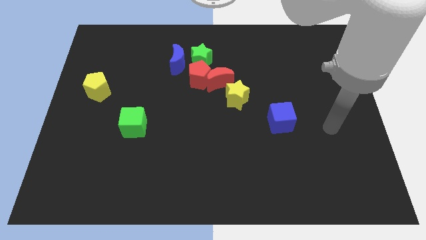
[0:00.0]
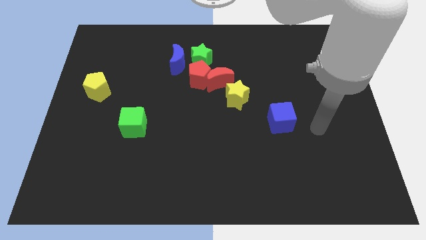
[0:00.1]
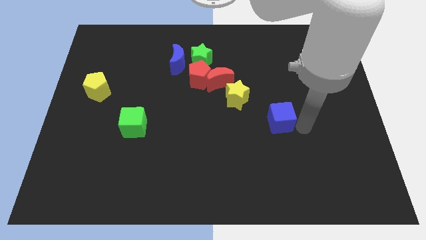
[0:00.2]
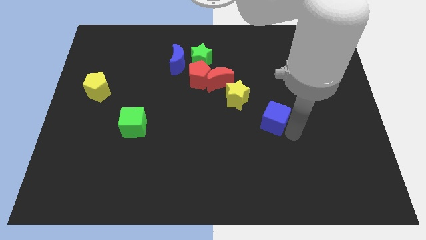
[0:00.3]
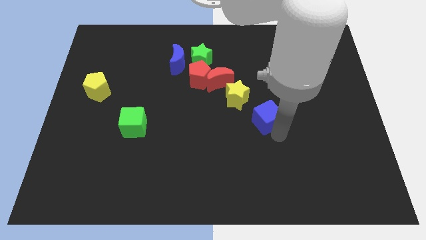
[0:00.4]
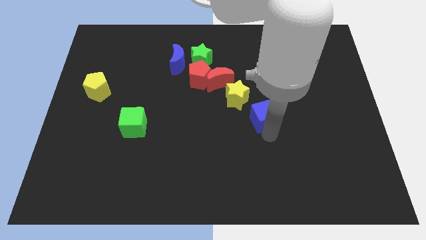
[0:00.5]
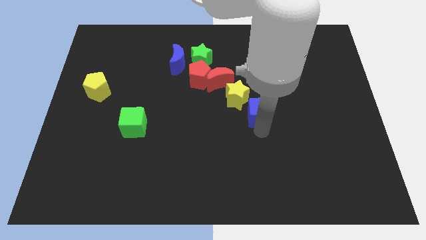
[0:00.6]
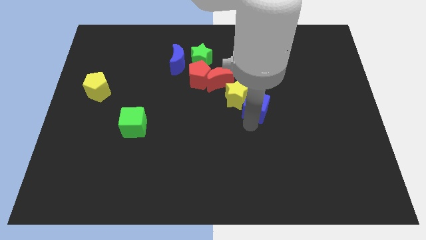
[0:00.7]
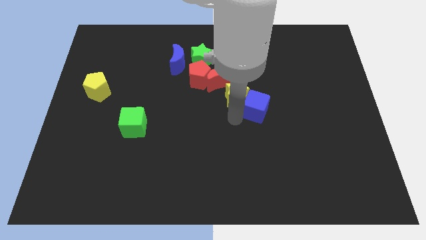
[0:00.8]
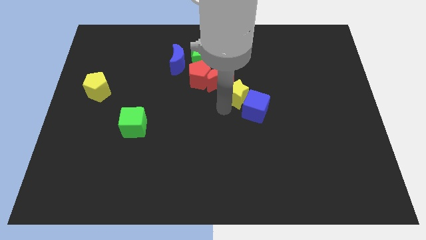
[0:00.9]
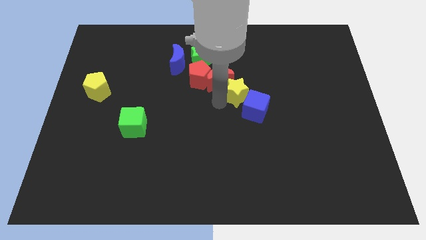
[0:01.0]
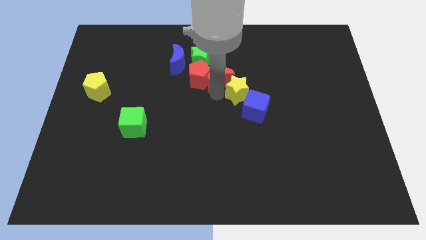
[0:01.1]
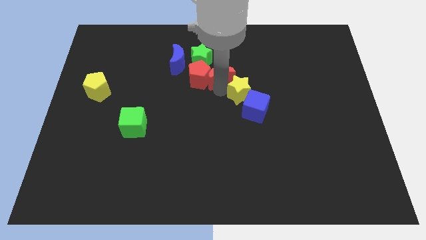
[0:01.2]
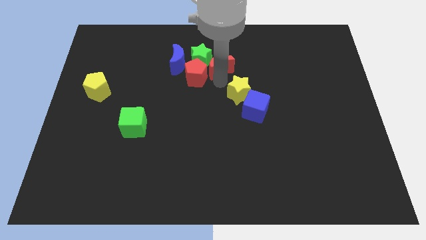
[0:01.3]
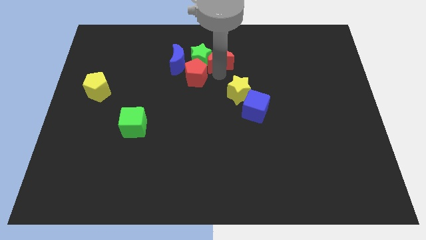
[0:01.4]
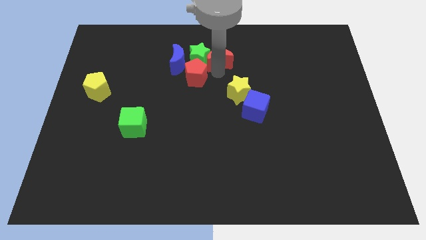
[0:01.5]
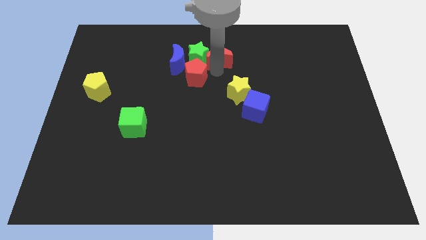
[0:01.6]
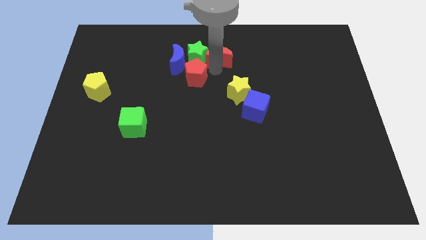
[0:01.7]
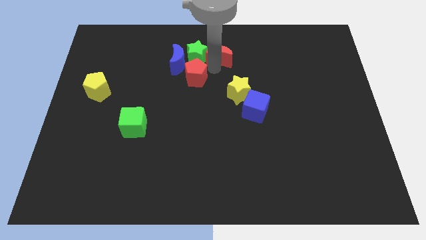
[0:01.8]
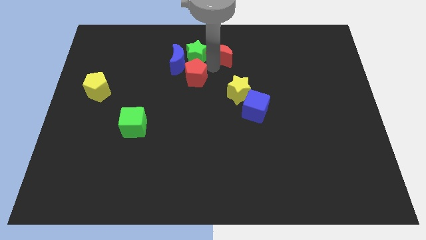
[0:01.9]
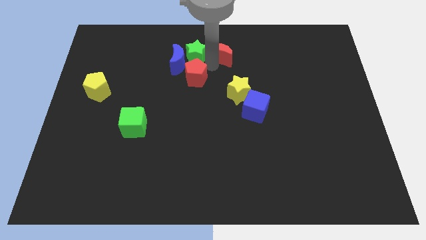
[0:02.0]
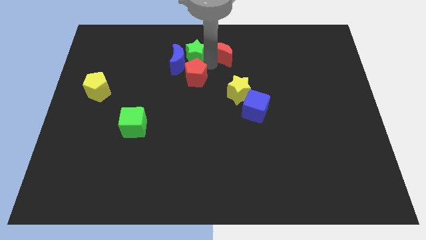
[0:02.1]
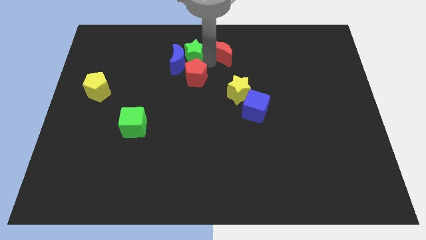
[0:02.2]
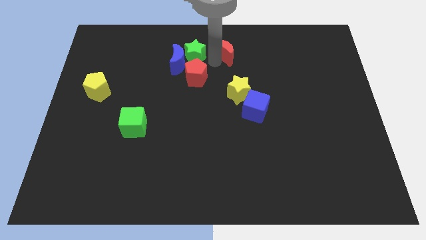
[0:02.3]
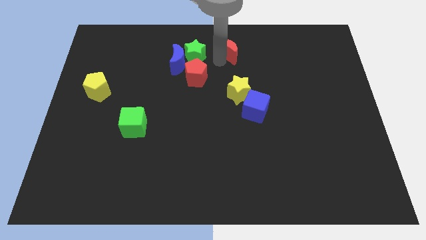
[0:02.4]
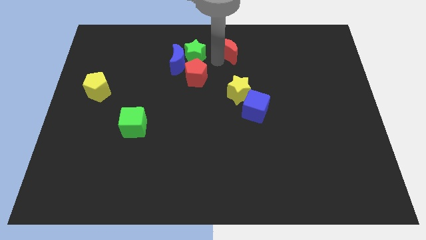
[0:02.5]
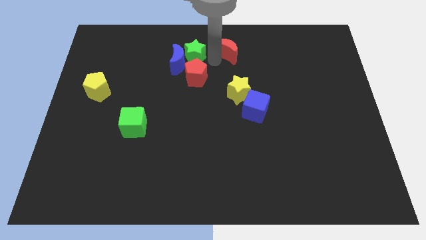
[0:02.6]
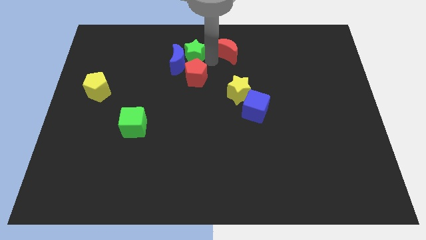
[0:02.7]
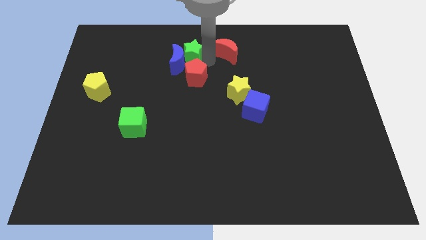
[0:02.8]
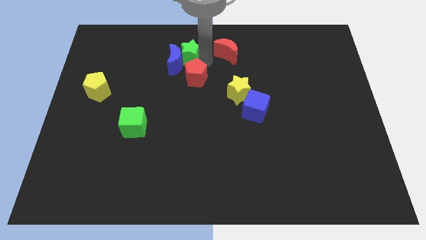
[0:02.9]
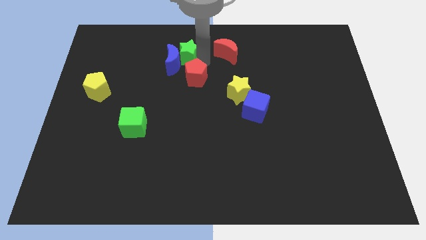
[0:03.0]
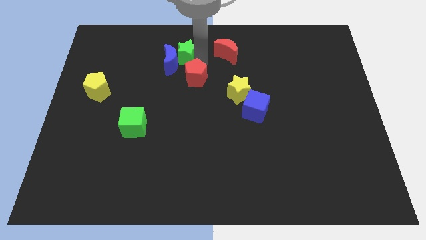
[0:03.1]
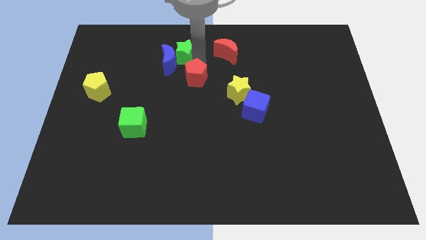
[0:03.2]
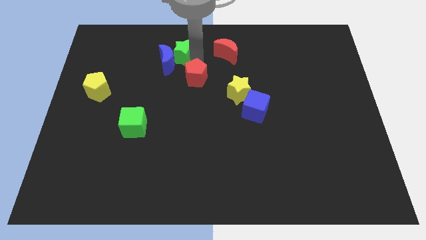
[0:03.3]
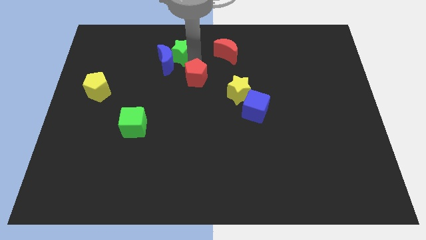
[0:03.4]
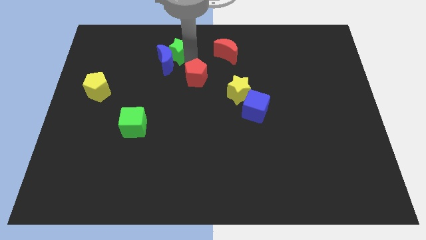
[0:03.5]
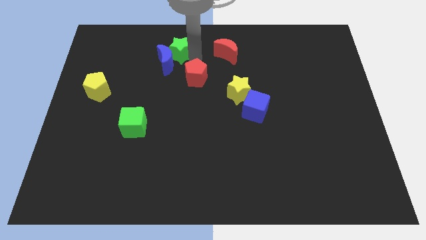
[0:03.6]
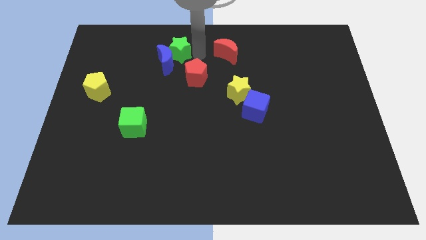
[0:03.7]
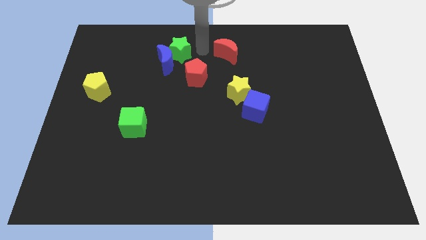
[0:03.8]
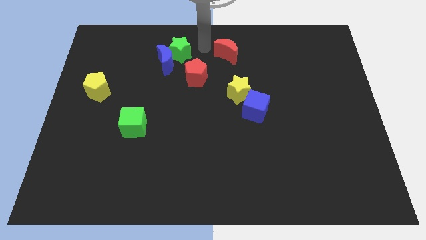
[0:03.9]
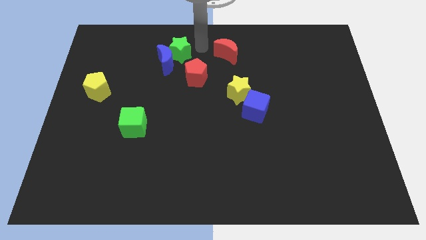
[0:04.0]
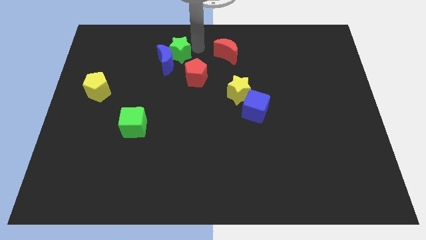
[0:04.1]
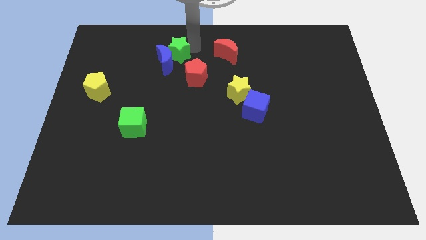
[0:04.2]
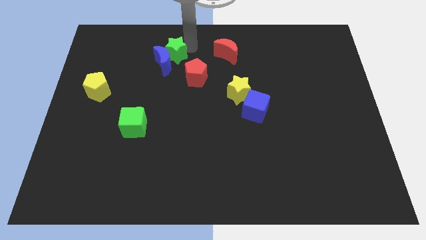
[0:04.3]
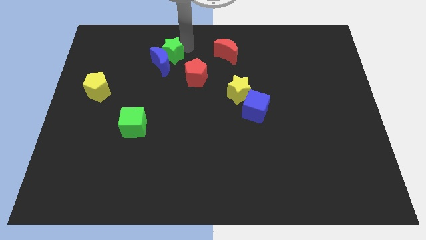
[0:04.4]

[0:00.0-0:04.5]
slide the green star left slightly

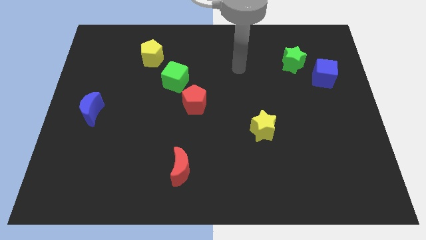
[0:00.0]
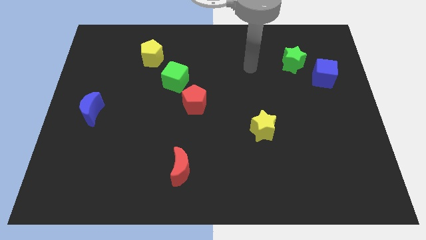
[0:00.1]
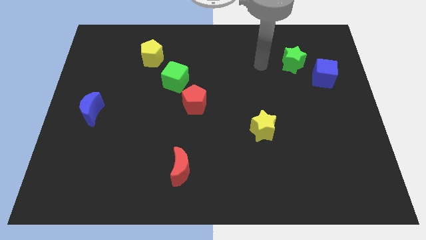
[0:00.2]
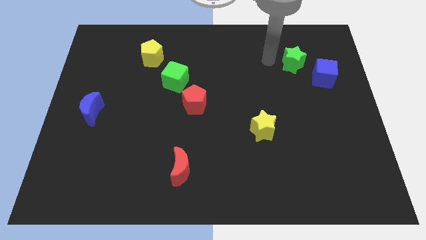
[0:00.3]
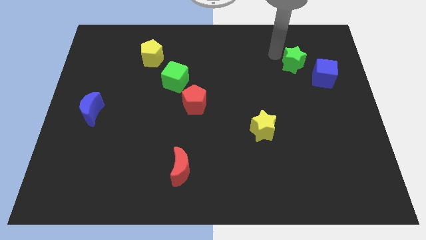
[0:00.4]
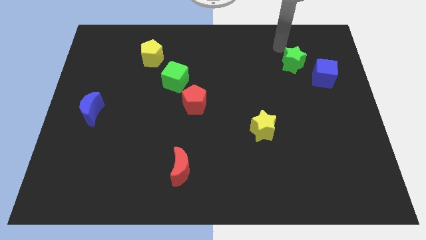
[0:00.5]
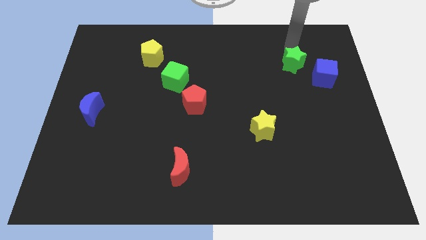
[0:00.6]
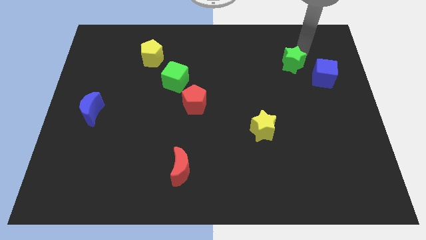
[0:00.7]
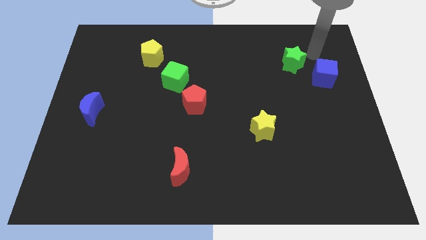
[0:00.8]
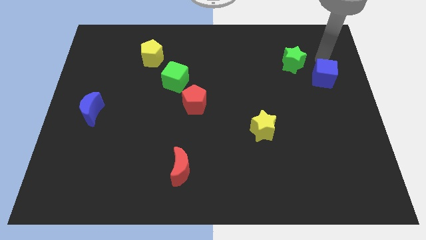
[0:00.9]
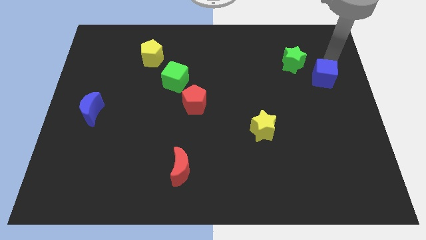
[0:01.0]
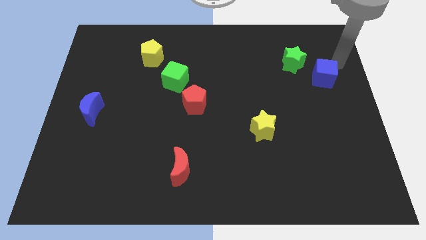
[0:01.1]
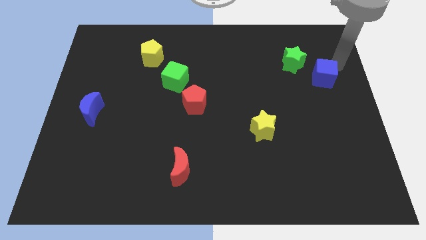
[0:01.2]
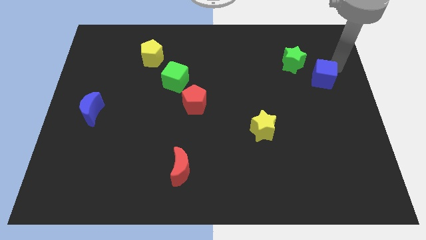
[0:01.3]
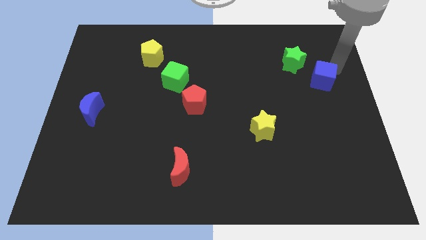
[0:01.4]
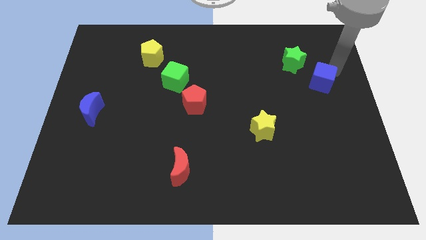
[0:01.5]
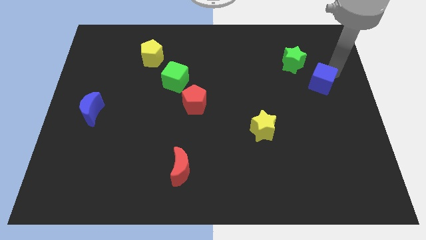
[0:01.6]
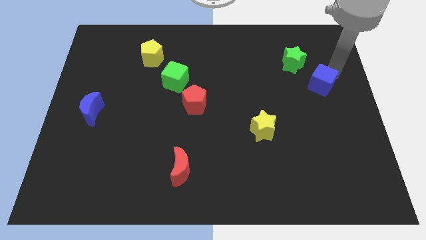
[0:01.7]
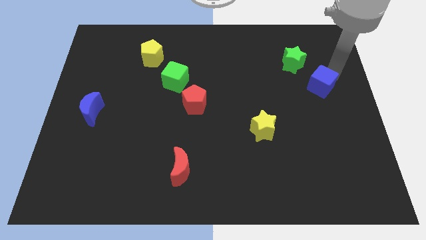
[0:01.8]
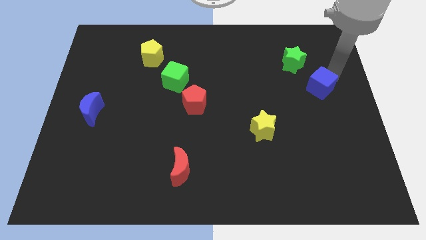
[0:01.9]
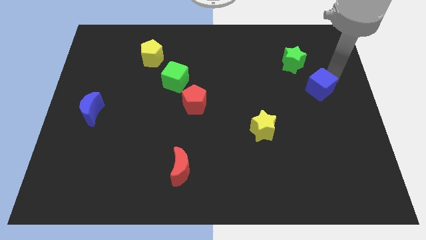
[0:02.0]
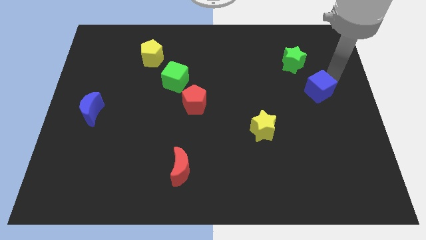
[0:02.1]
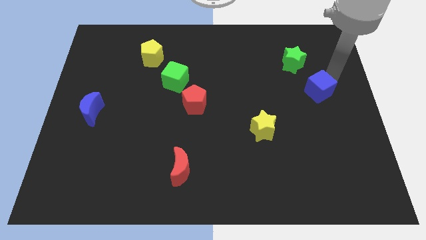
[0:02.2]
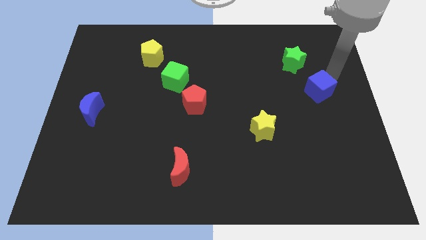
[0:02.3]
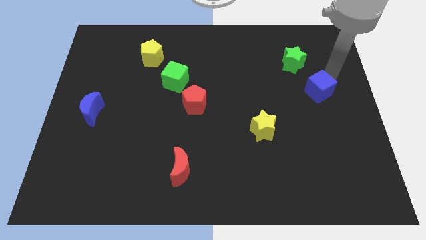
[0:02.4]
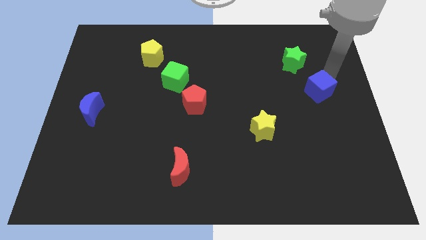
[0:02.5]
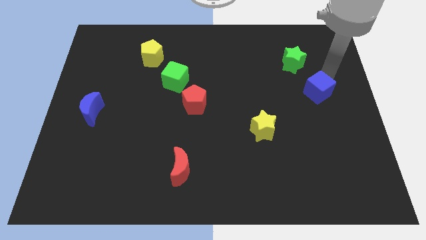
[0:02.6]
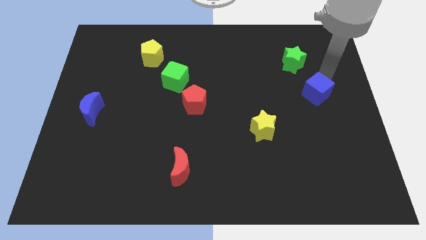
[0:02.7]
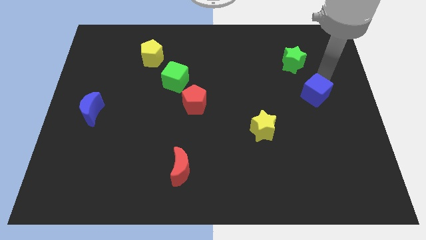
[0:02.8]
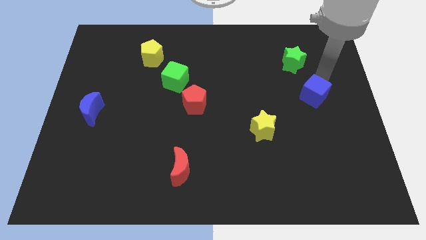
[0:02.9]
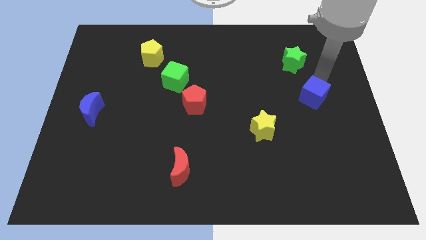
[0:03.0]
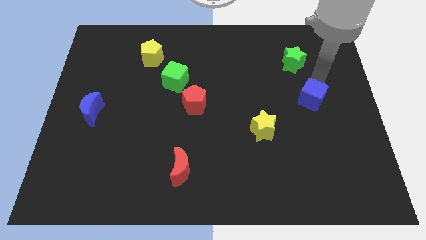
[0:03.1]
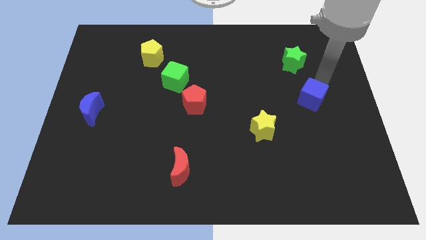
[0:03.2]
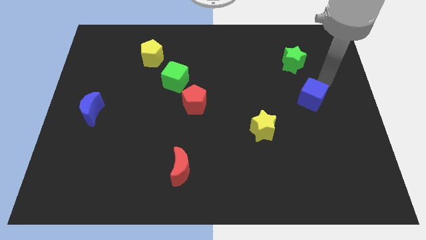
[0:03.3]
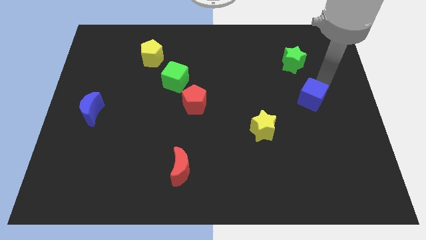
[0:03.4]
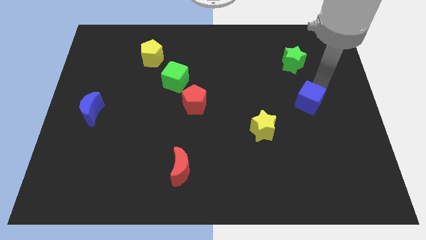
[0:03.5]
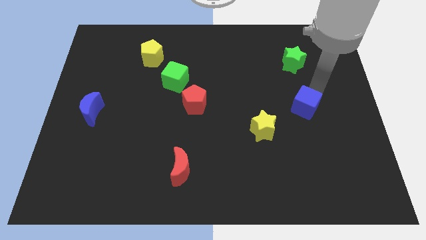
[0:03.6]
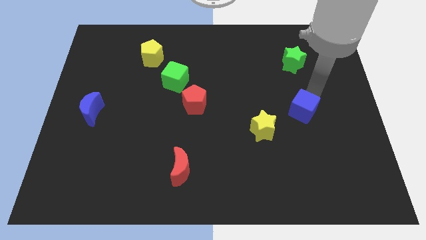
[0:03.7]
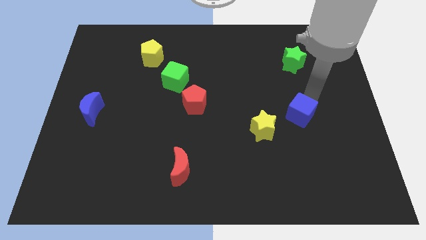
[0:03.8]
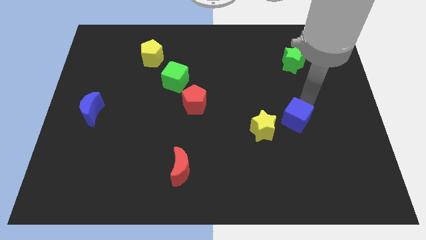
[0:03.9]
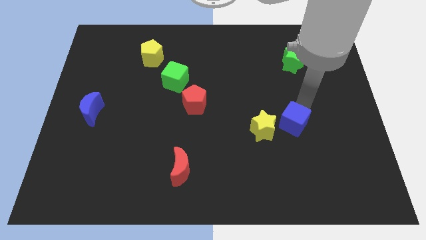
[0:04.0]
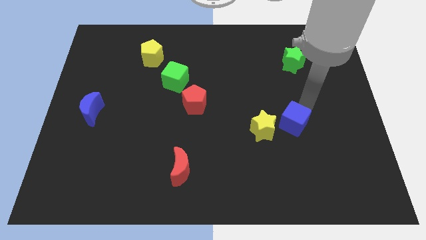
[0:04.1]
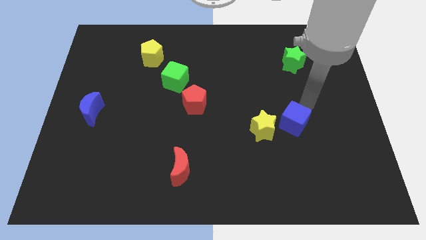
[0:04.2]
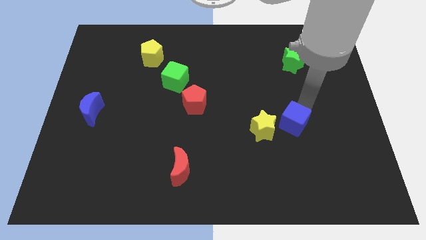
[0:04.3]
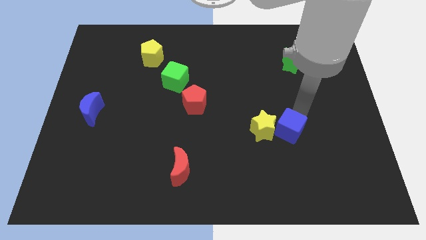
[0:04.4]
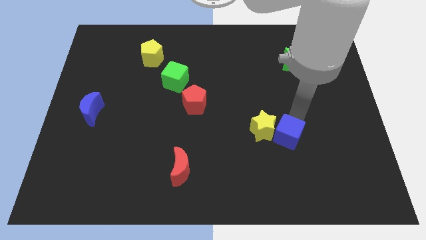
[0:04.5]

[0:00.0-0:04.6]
slide the blue cube downwards and left diagonally
